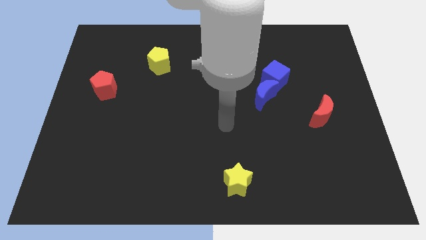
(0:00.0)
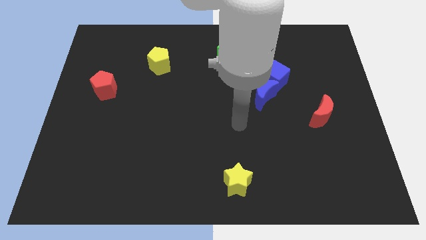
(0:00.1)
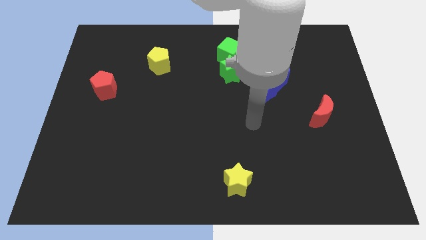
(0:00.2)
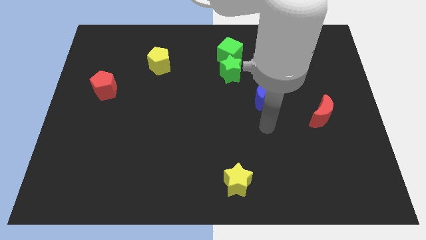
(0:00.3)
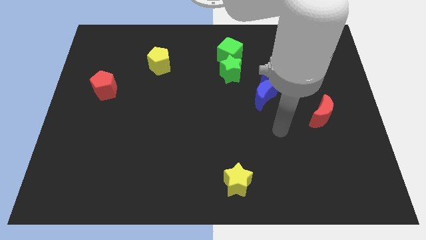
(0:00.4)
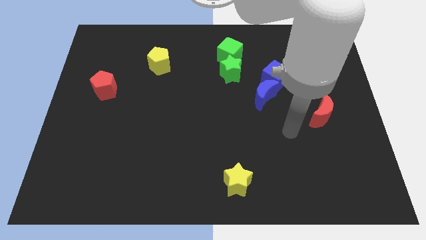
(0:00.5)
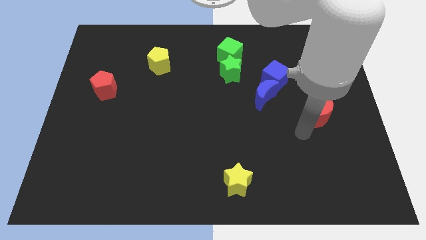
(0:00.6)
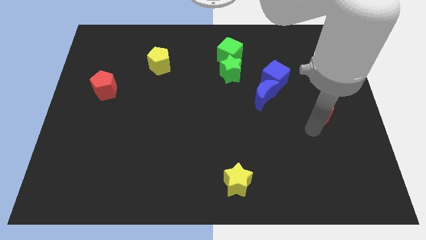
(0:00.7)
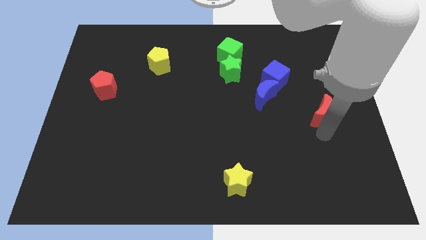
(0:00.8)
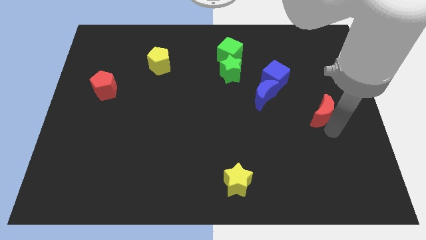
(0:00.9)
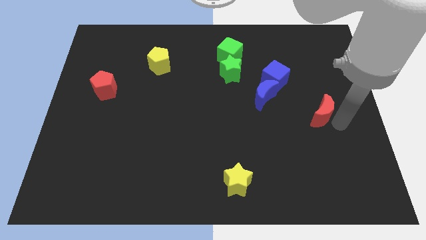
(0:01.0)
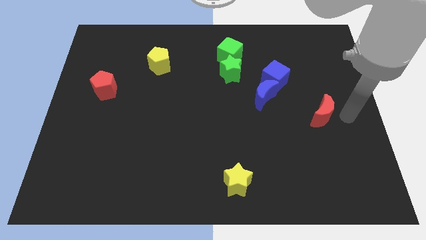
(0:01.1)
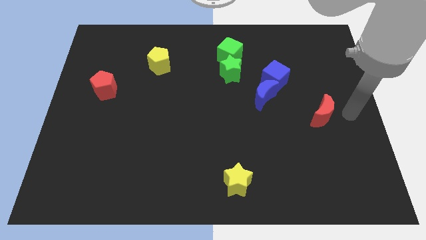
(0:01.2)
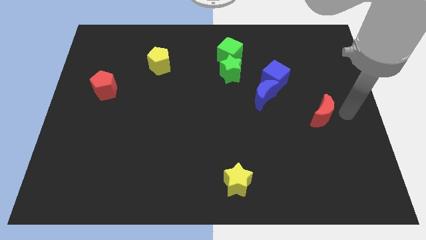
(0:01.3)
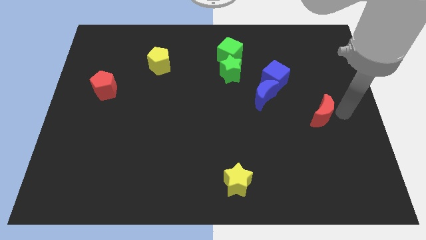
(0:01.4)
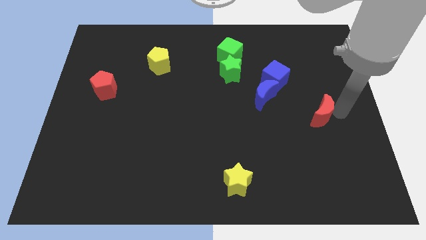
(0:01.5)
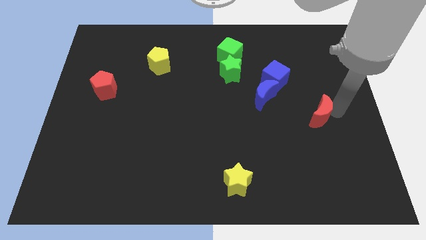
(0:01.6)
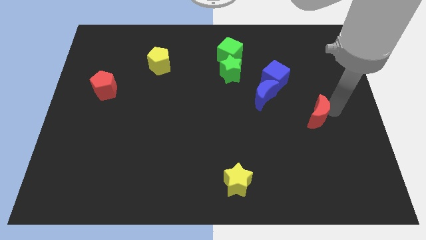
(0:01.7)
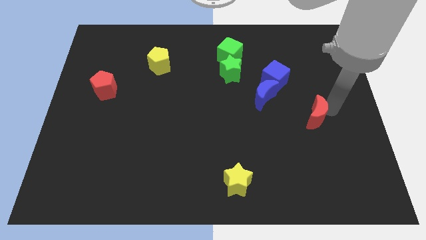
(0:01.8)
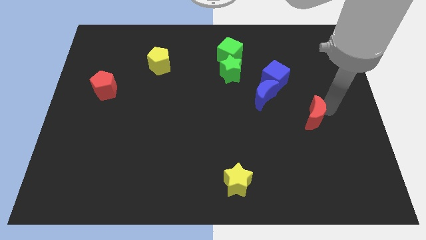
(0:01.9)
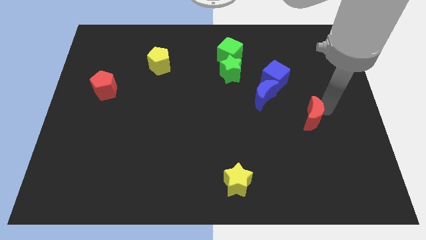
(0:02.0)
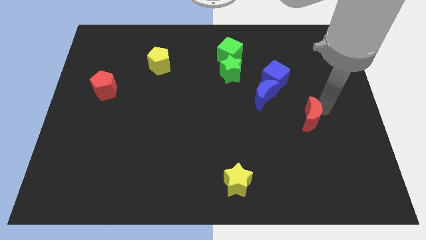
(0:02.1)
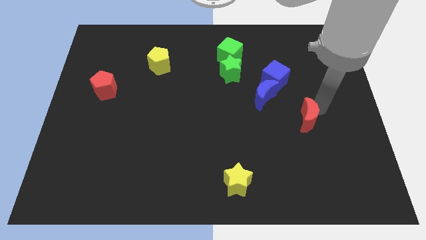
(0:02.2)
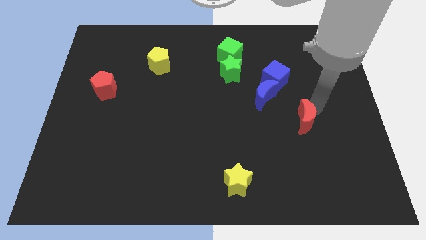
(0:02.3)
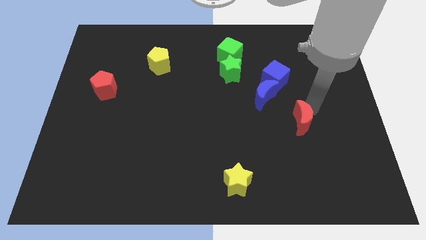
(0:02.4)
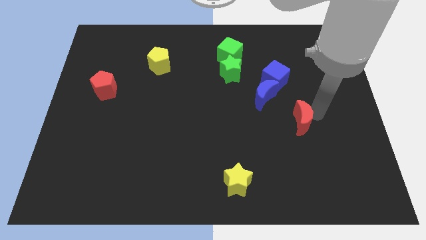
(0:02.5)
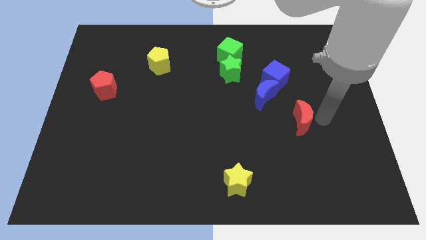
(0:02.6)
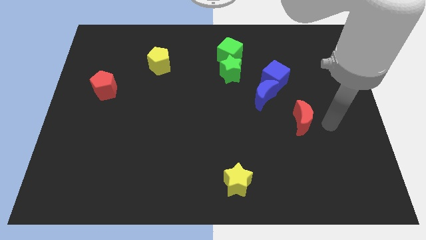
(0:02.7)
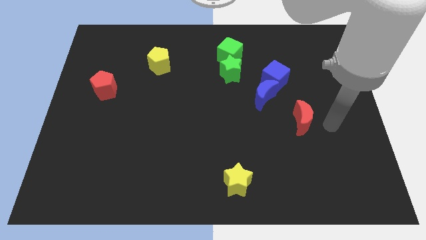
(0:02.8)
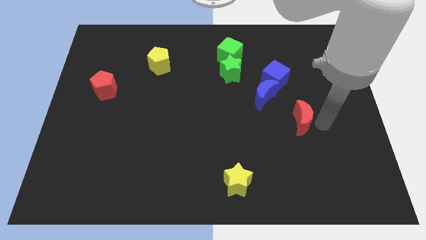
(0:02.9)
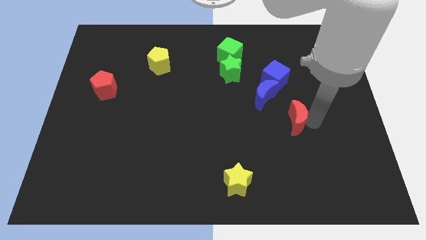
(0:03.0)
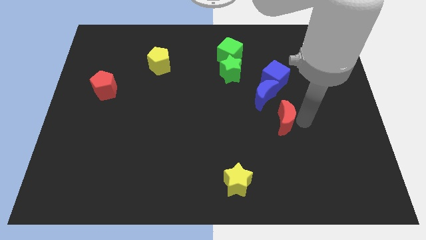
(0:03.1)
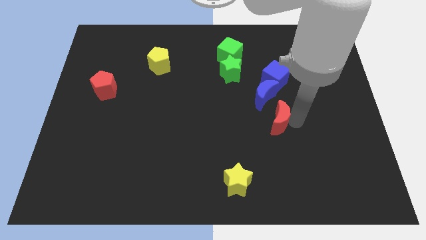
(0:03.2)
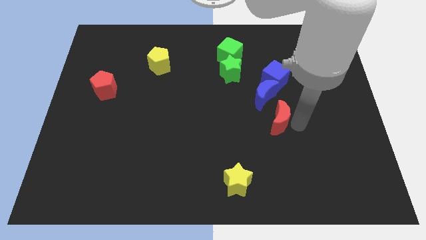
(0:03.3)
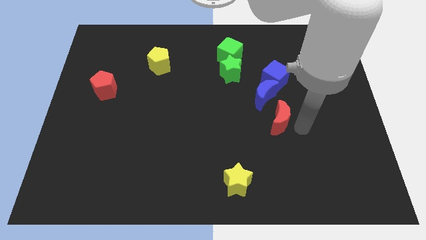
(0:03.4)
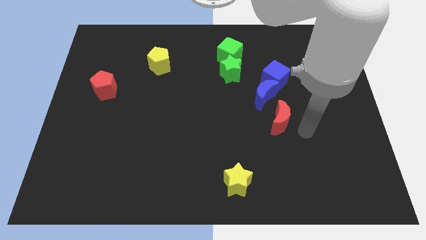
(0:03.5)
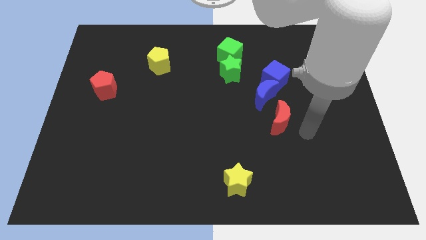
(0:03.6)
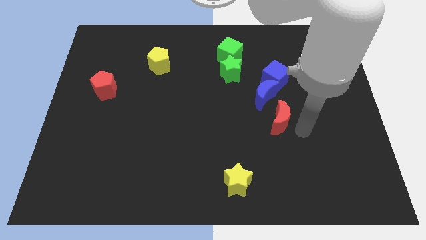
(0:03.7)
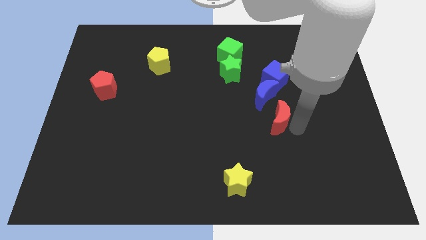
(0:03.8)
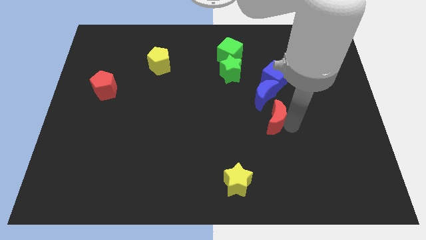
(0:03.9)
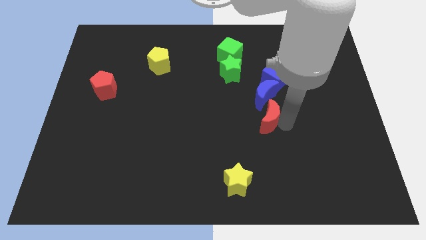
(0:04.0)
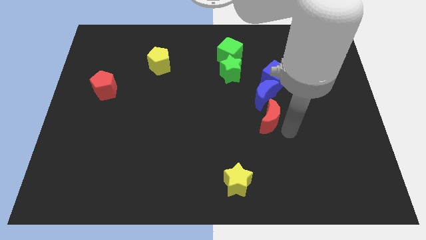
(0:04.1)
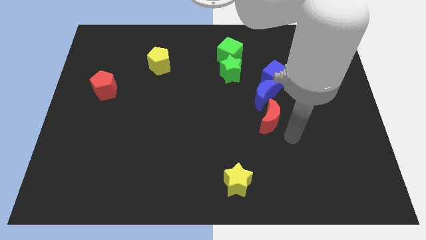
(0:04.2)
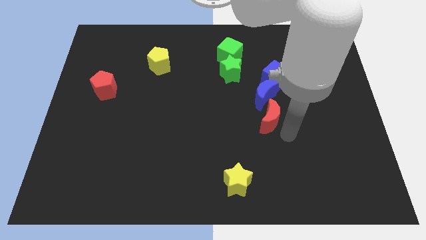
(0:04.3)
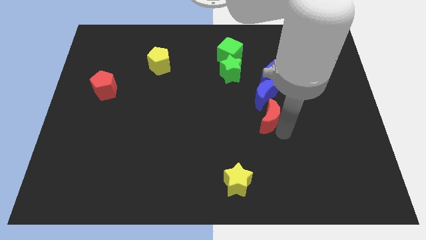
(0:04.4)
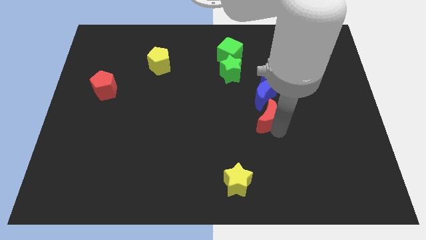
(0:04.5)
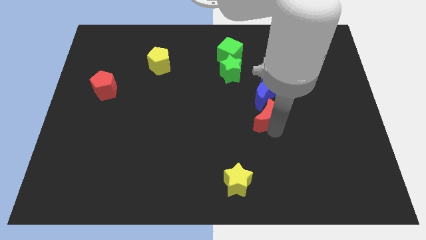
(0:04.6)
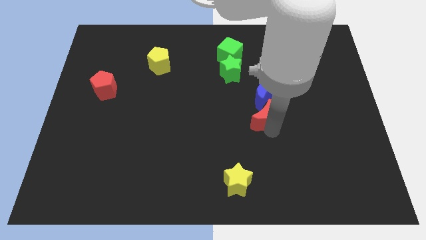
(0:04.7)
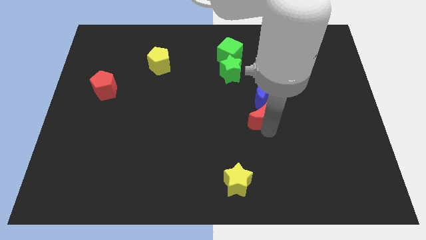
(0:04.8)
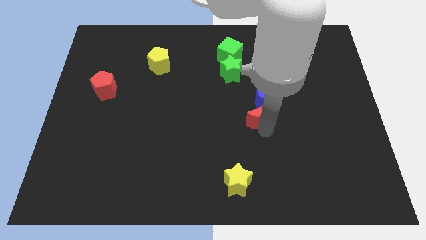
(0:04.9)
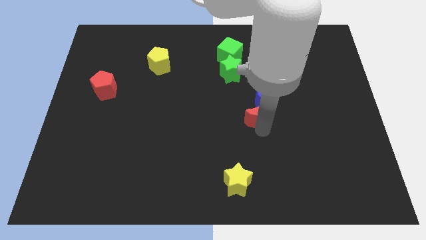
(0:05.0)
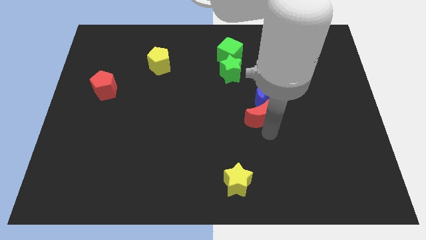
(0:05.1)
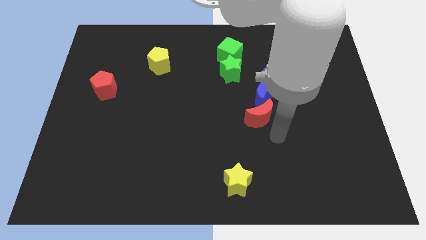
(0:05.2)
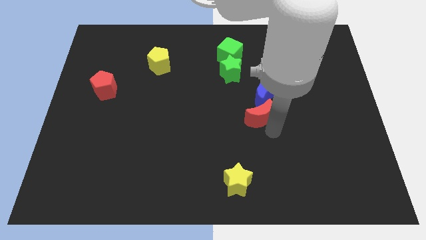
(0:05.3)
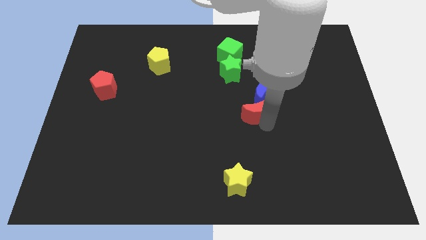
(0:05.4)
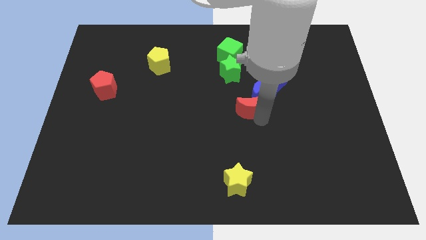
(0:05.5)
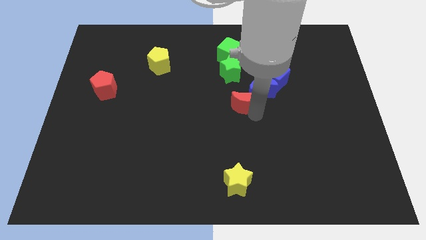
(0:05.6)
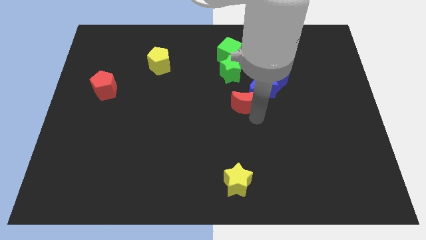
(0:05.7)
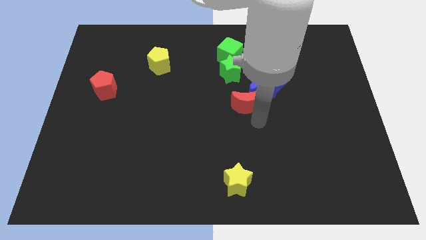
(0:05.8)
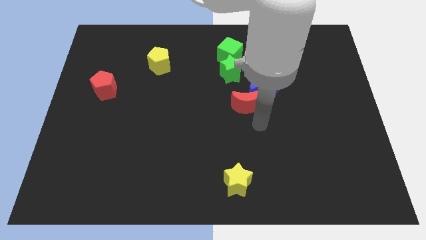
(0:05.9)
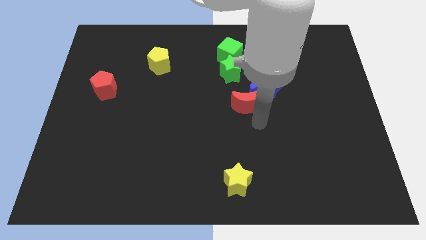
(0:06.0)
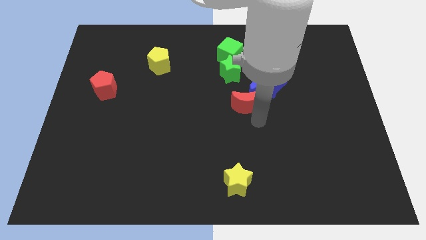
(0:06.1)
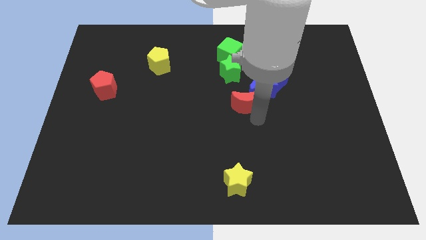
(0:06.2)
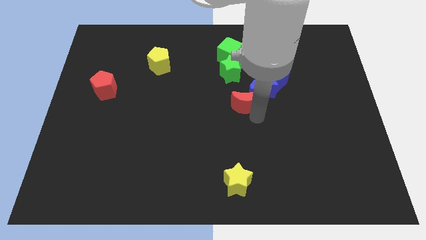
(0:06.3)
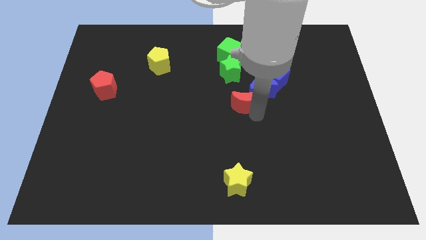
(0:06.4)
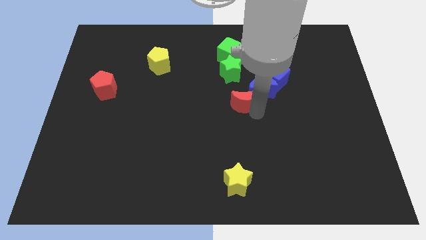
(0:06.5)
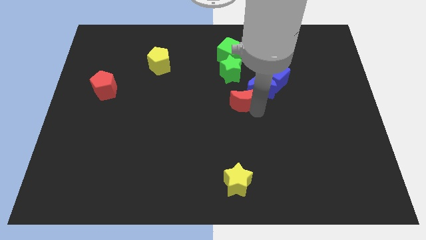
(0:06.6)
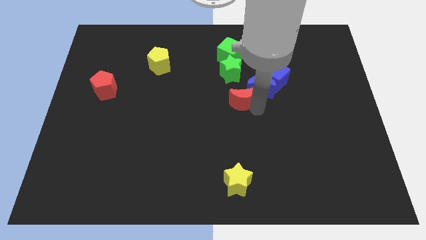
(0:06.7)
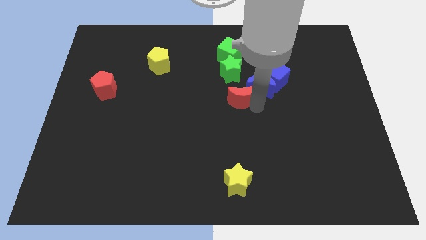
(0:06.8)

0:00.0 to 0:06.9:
put the red moon below the green cube

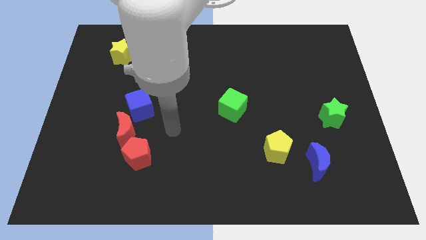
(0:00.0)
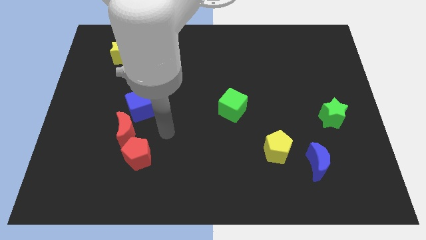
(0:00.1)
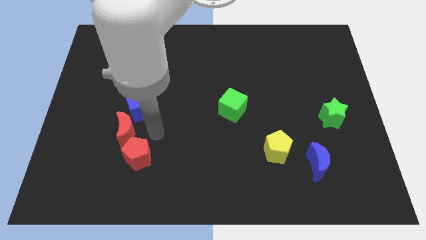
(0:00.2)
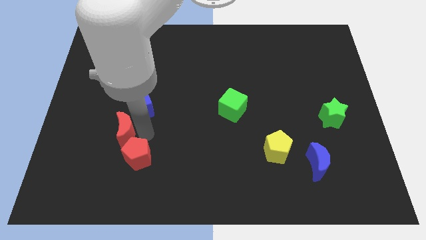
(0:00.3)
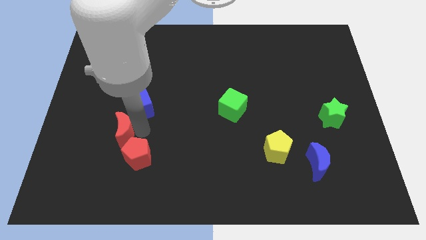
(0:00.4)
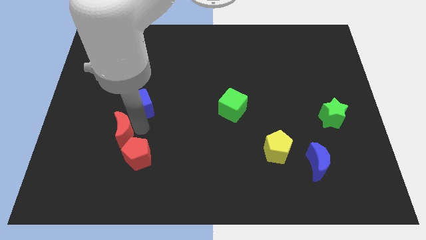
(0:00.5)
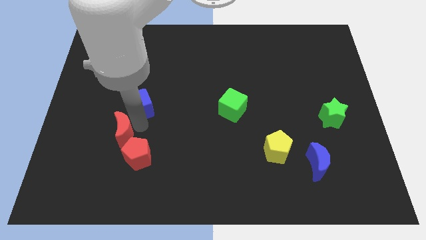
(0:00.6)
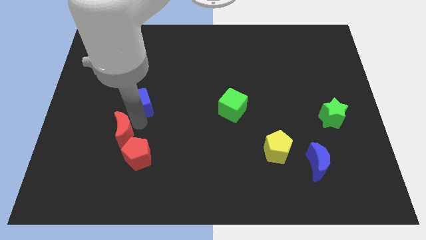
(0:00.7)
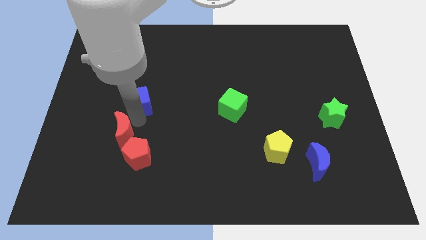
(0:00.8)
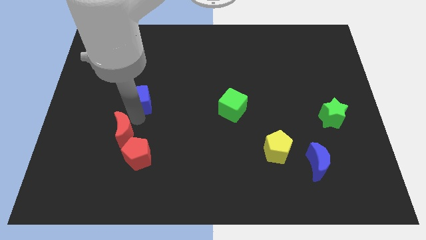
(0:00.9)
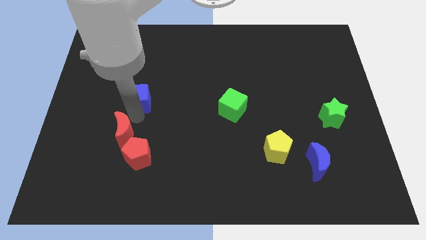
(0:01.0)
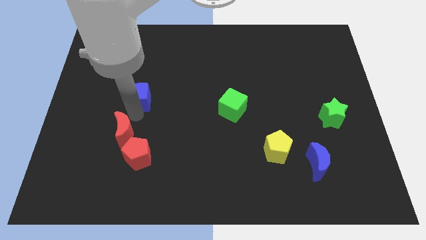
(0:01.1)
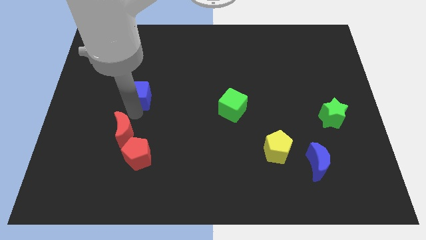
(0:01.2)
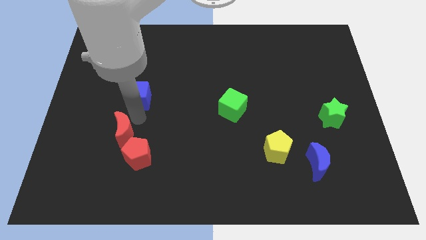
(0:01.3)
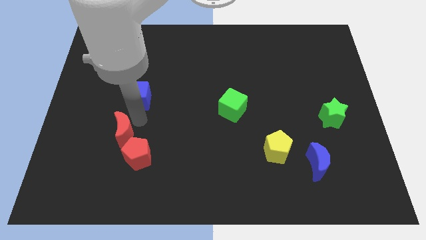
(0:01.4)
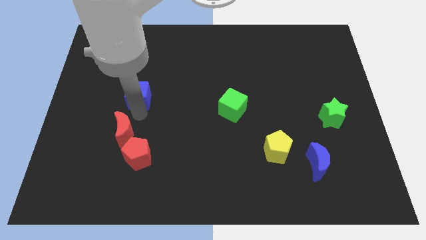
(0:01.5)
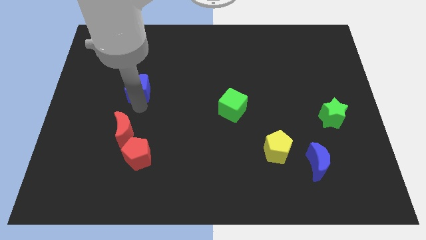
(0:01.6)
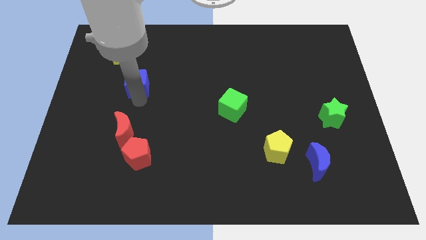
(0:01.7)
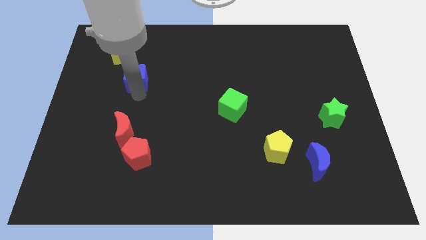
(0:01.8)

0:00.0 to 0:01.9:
push the blue cube to the bottom right of the yellow star
